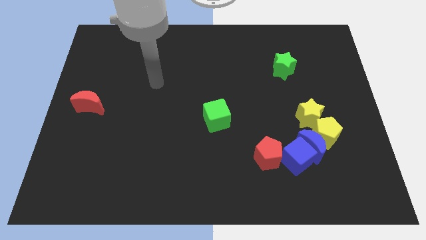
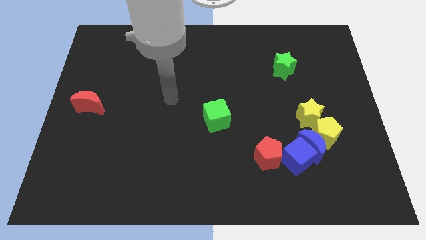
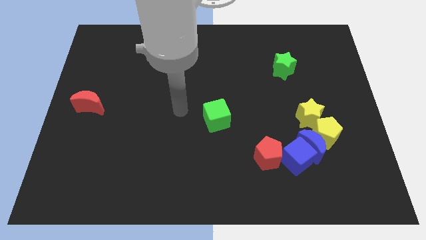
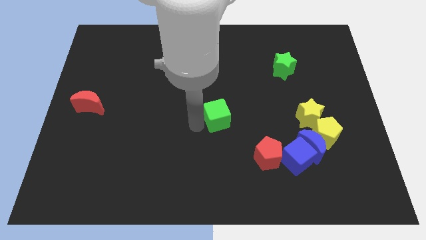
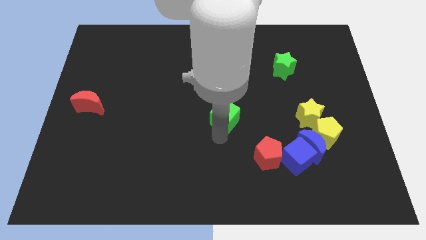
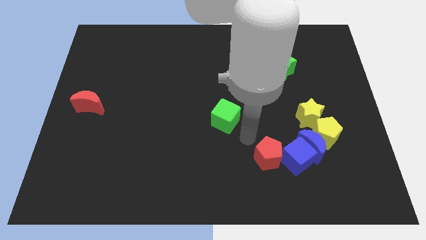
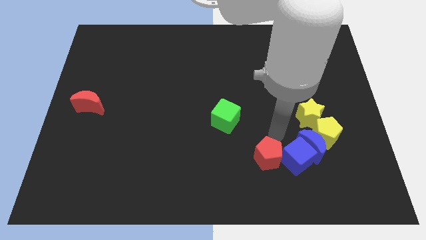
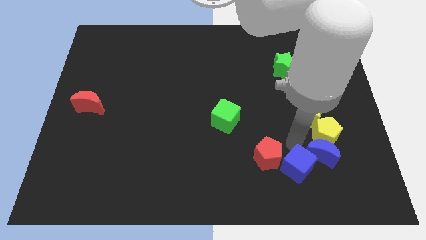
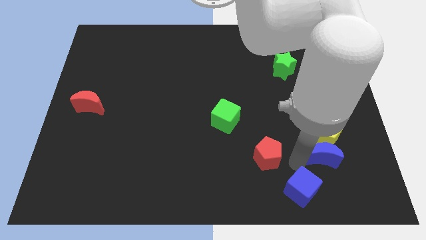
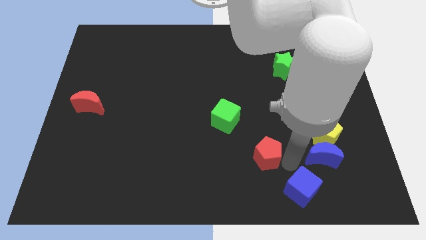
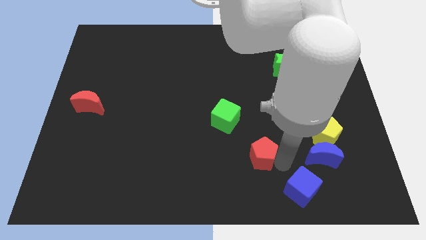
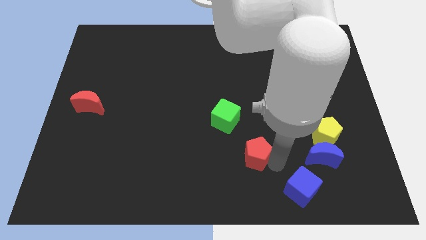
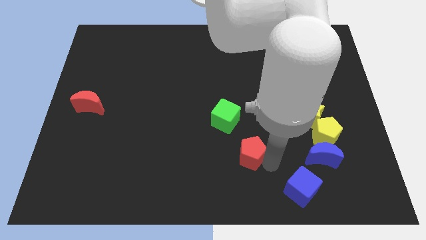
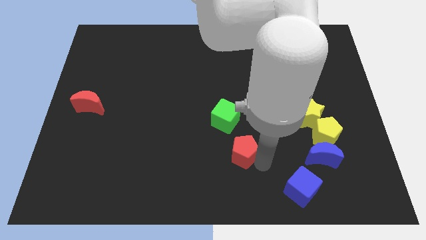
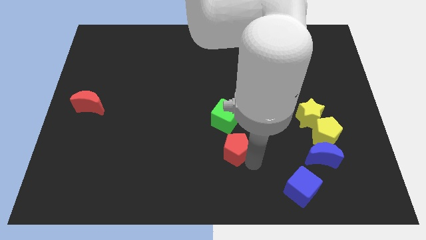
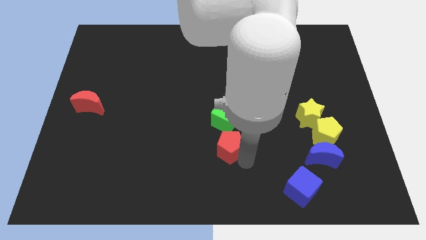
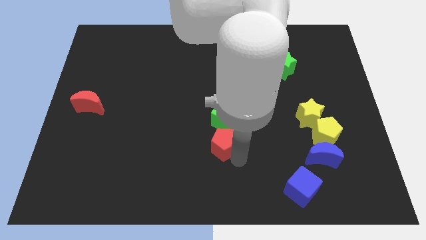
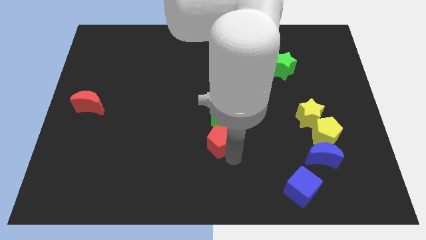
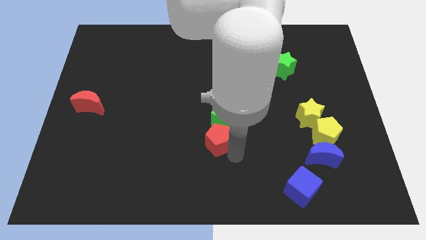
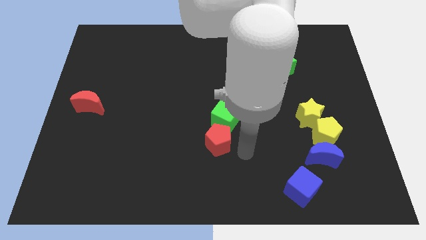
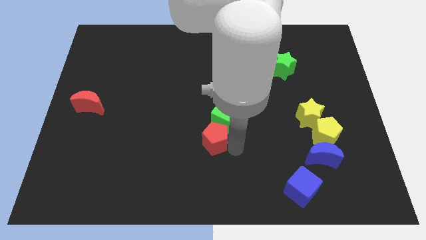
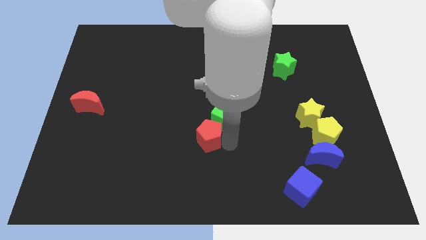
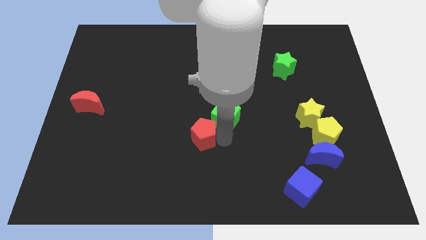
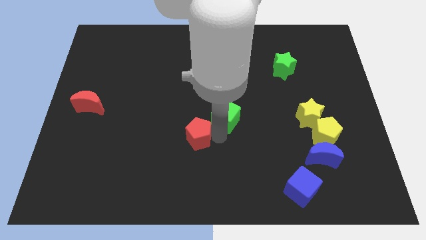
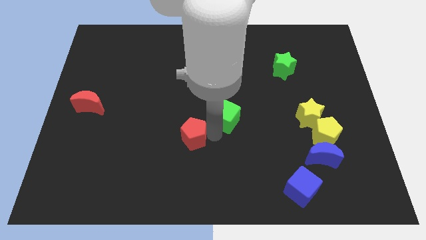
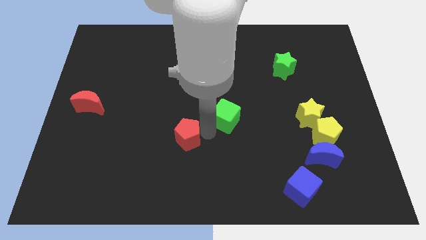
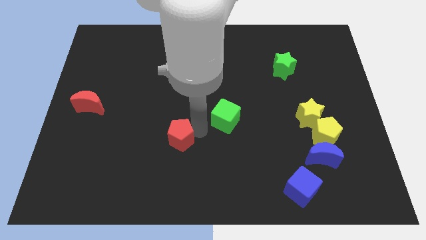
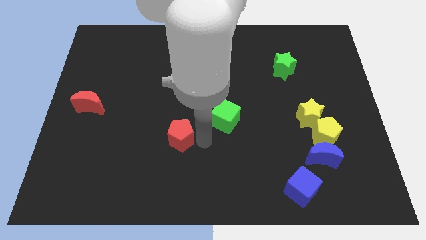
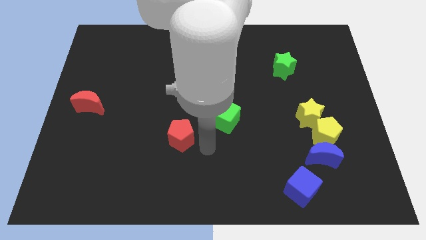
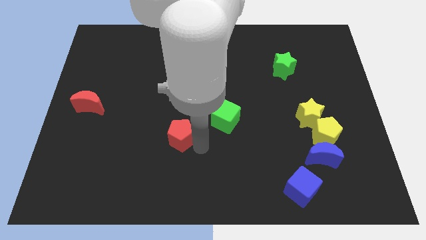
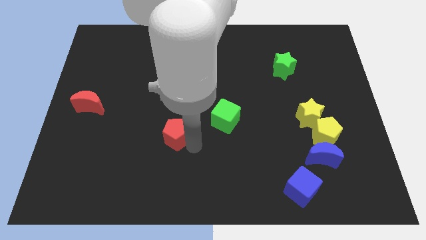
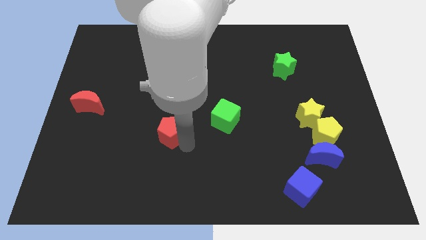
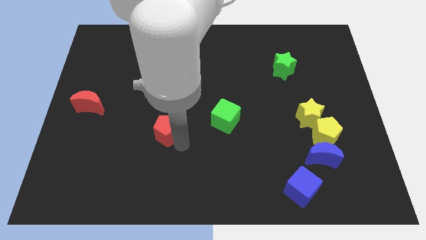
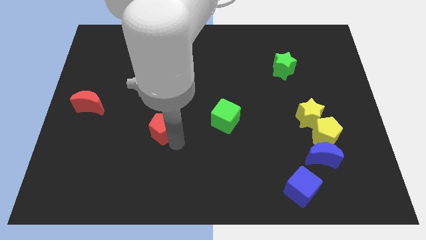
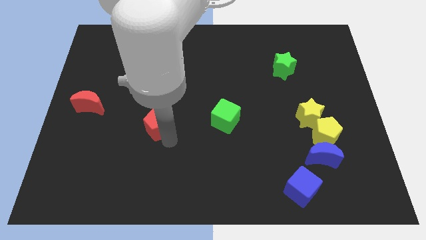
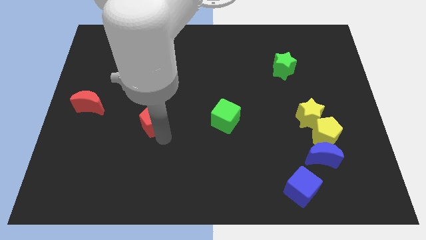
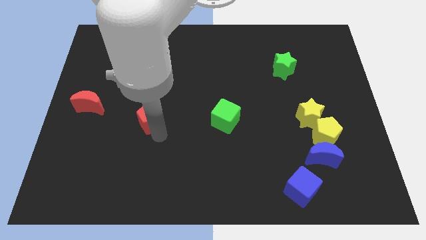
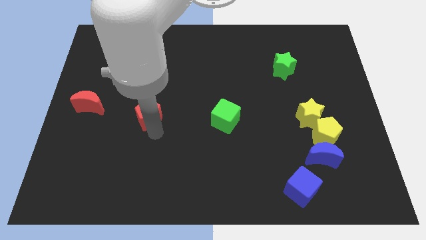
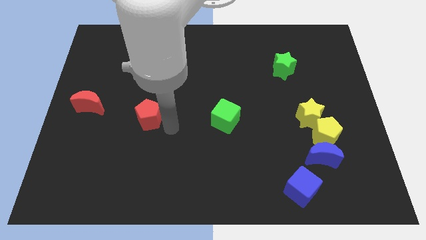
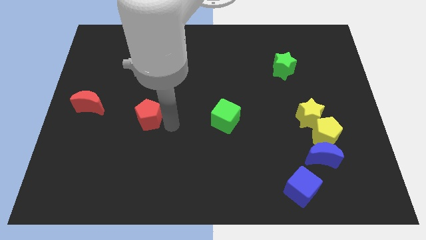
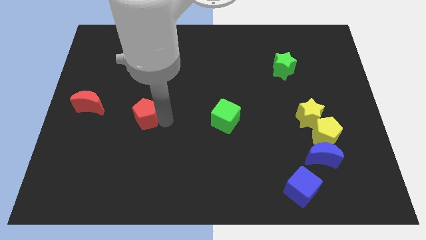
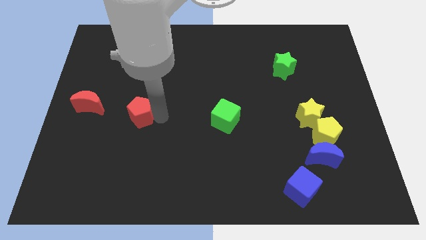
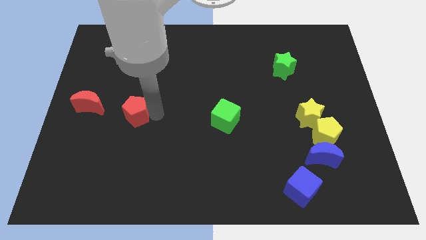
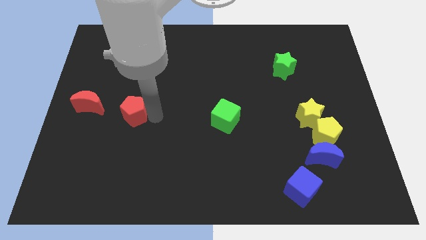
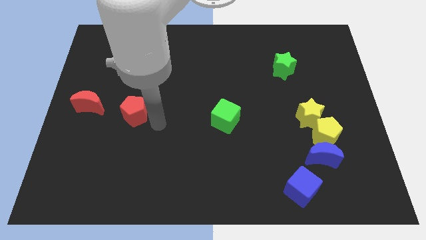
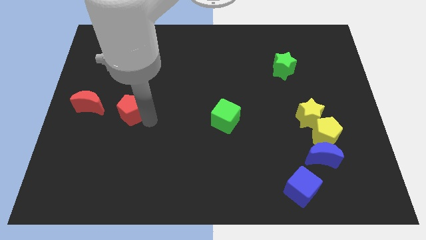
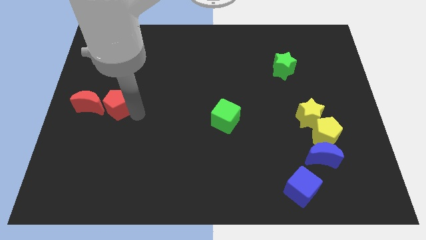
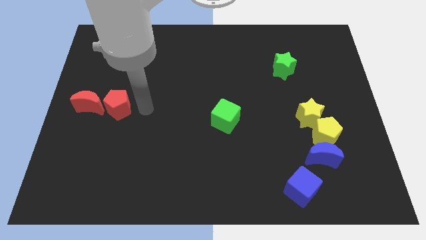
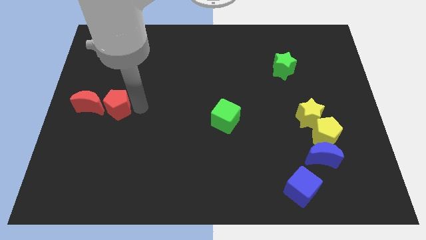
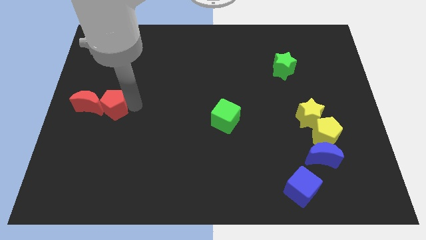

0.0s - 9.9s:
move the red pentagon to the red moon

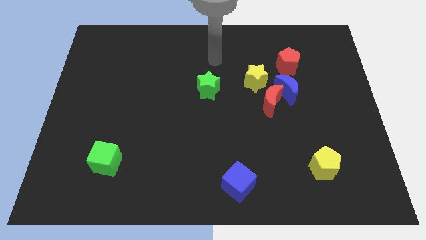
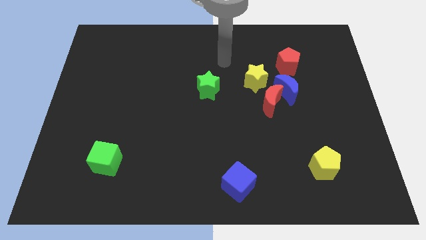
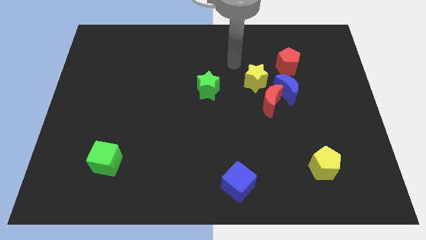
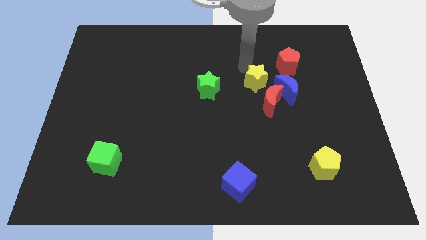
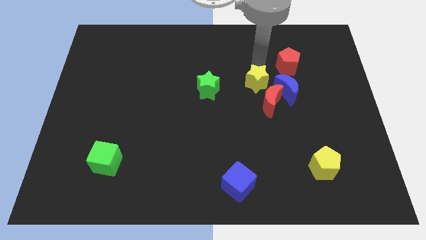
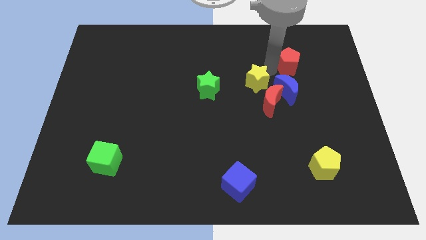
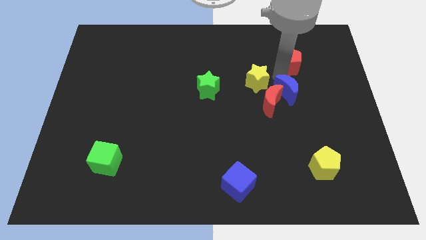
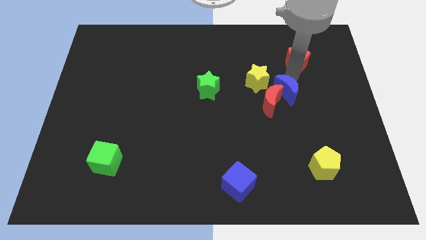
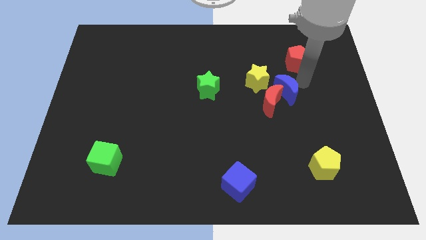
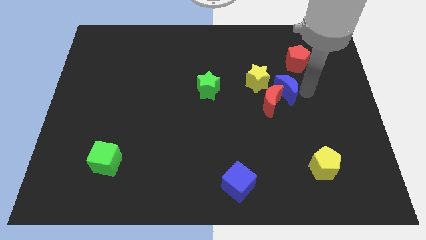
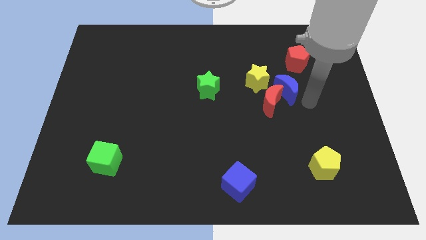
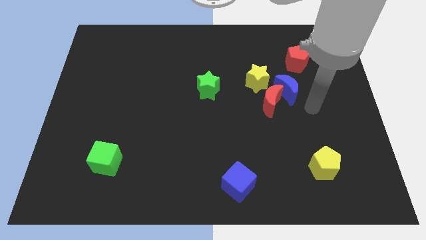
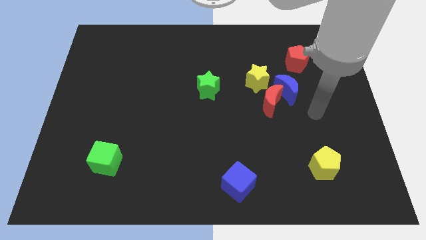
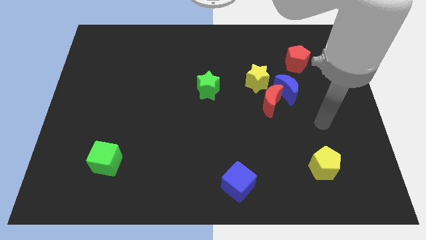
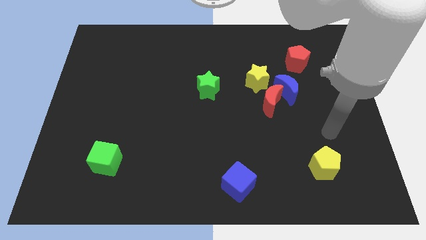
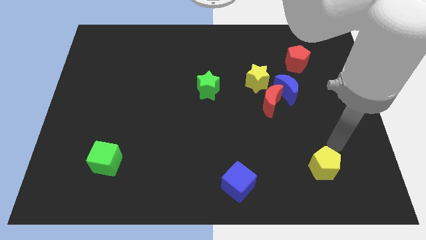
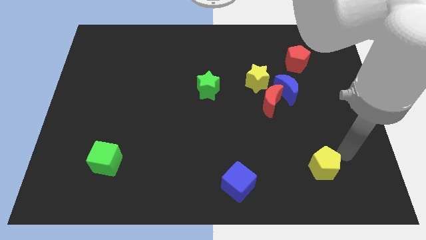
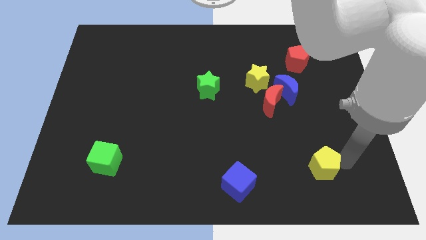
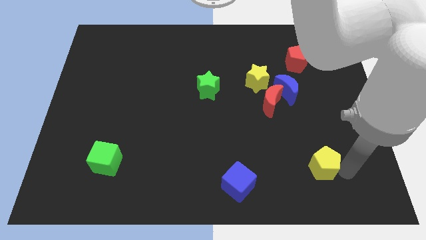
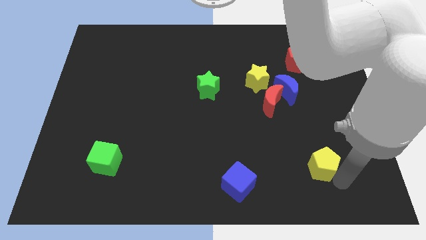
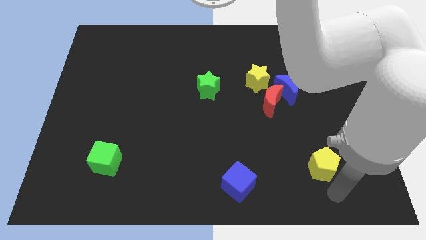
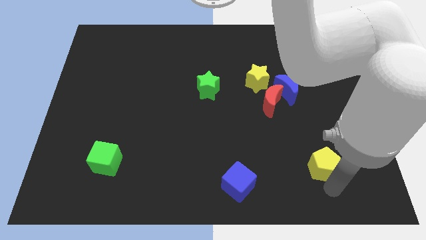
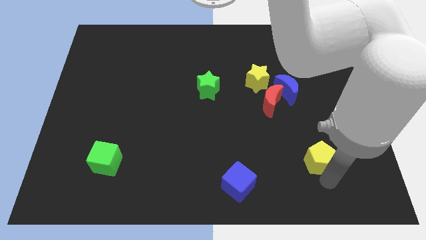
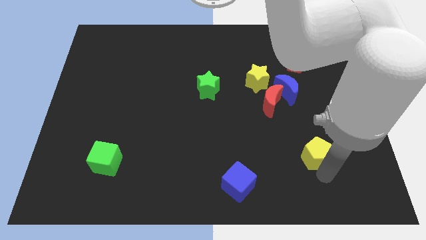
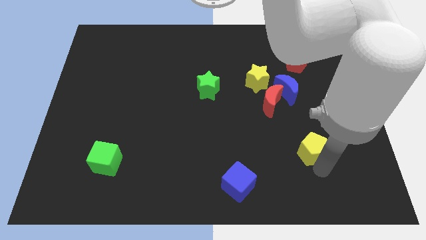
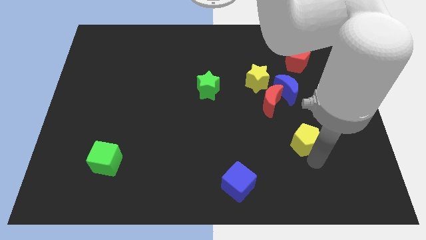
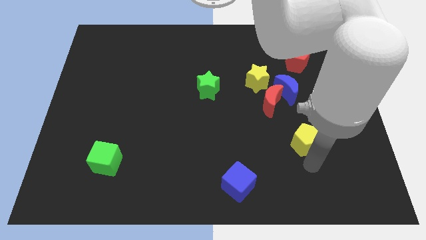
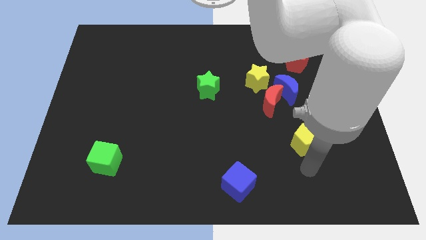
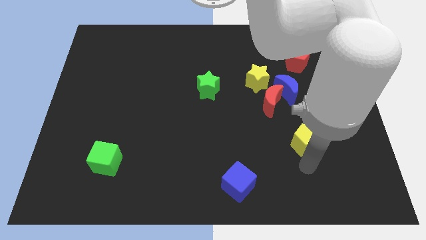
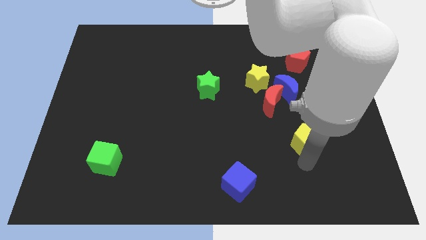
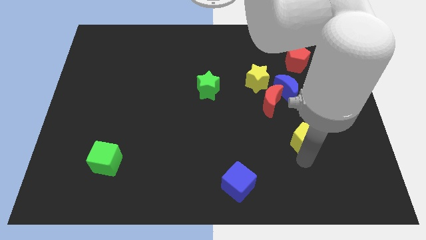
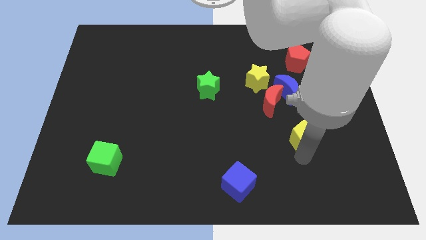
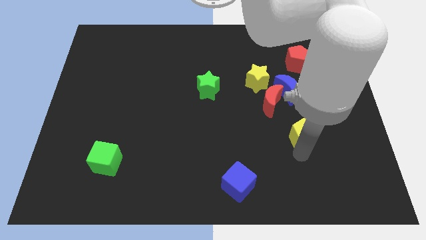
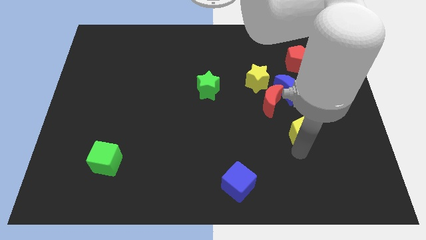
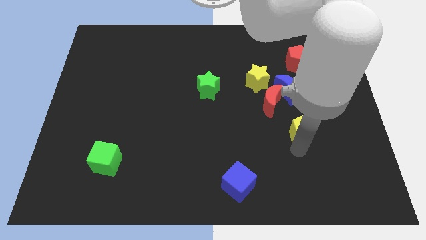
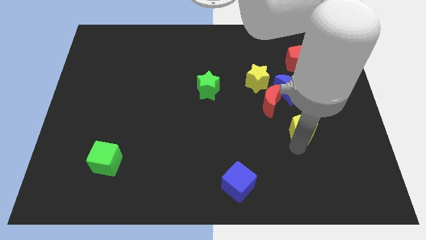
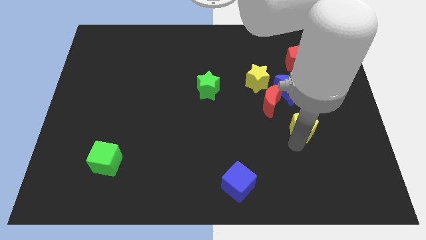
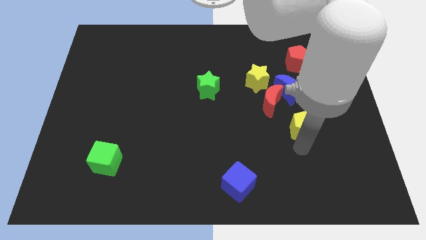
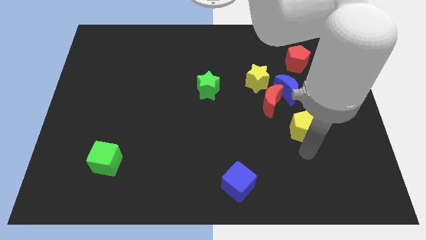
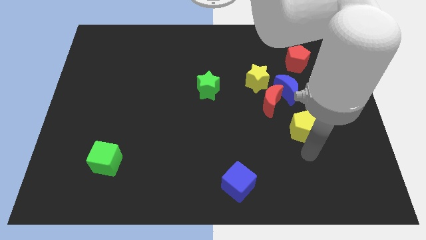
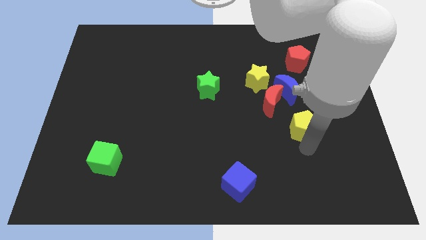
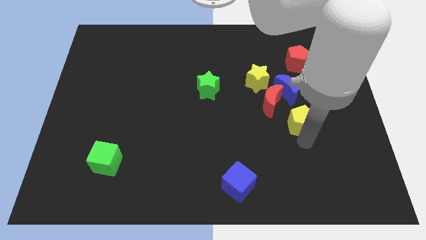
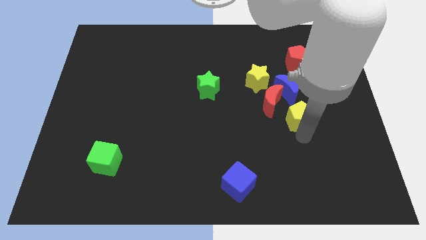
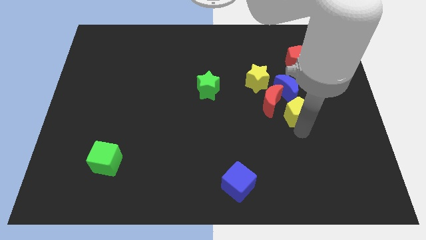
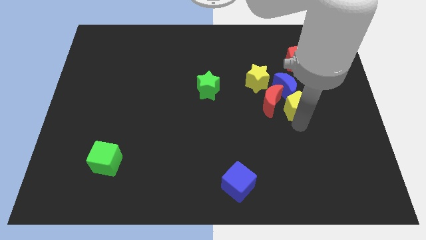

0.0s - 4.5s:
put the yellow pentagon close to the blue moon
